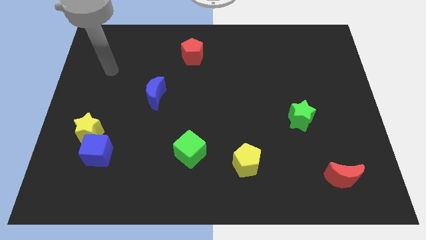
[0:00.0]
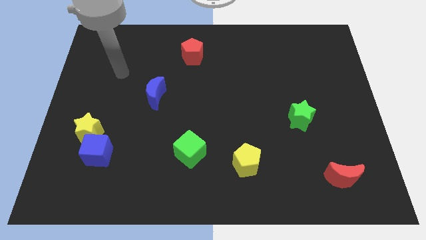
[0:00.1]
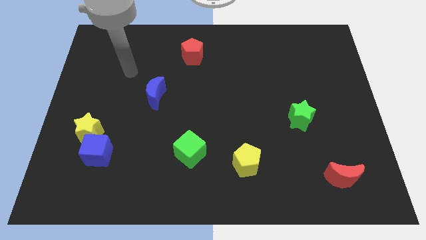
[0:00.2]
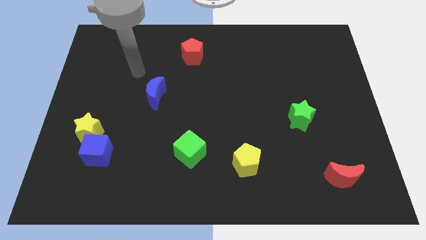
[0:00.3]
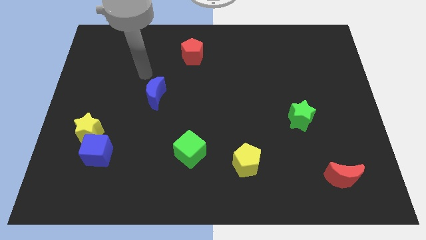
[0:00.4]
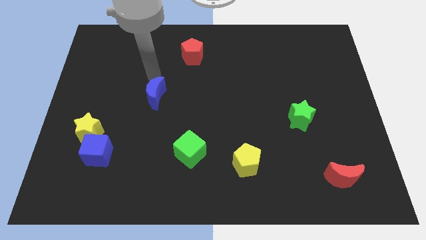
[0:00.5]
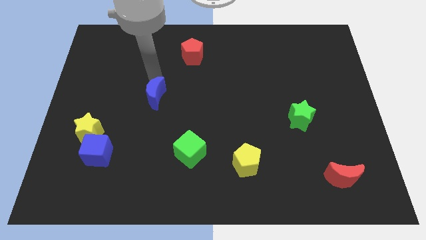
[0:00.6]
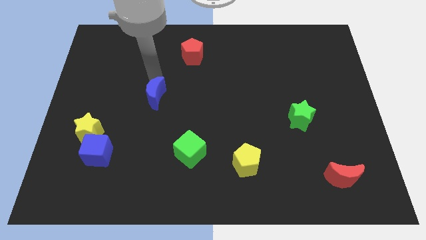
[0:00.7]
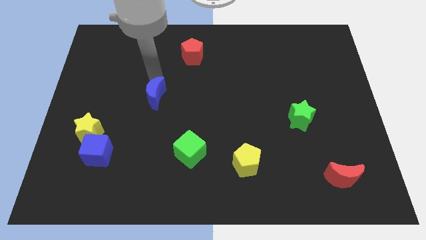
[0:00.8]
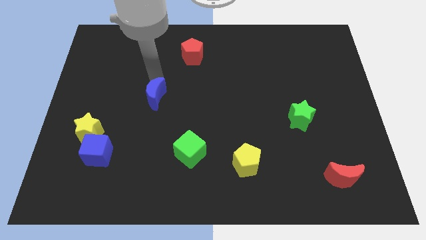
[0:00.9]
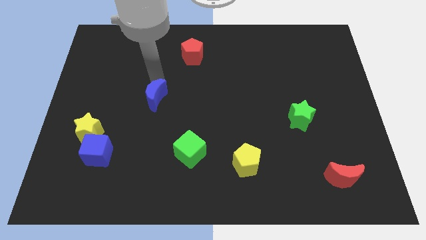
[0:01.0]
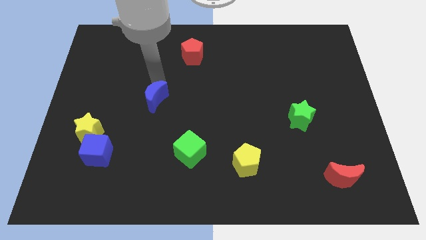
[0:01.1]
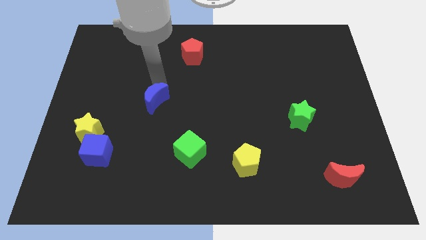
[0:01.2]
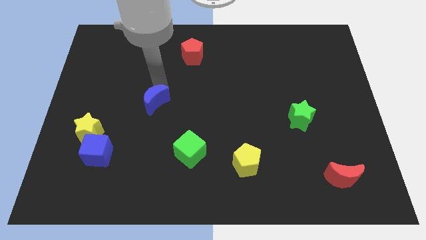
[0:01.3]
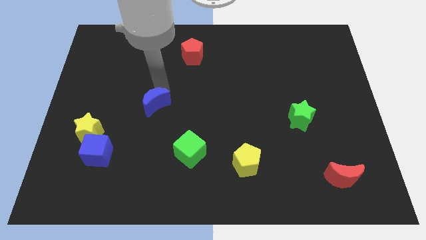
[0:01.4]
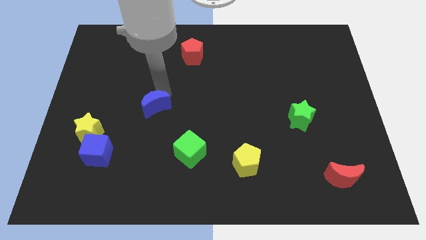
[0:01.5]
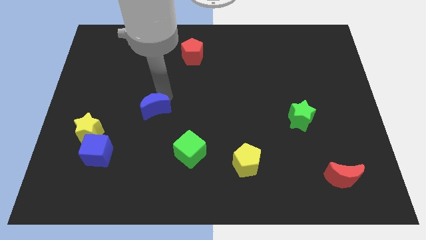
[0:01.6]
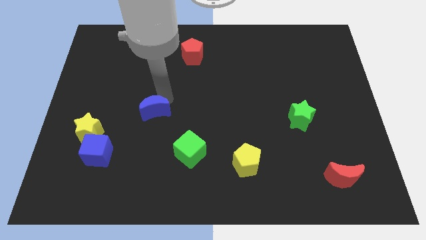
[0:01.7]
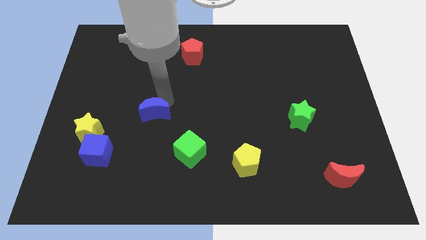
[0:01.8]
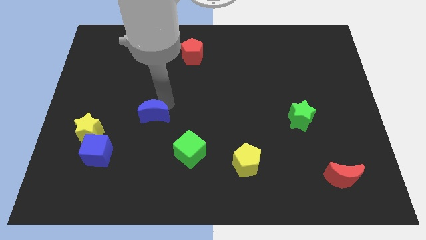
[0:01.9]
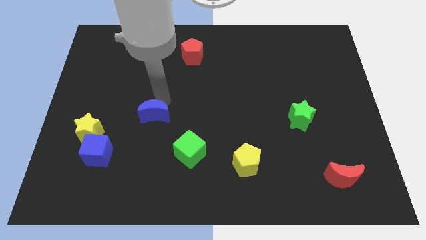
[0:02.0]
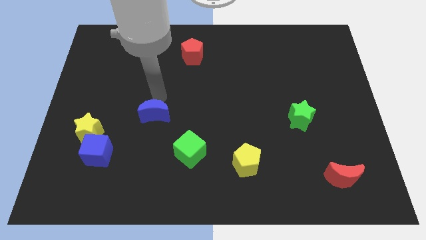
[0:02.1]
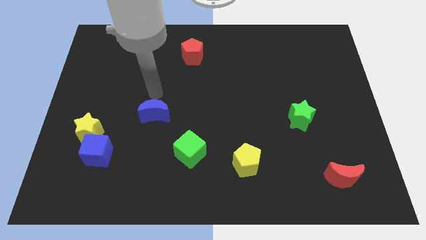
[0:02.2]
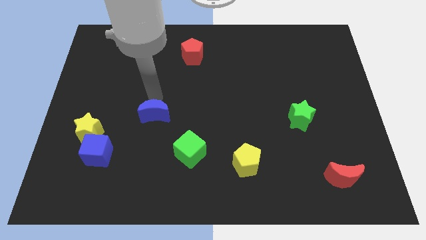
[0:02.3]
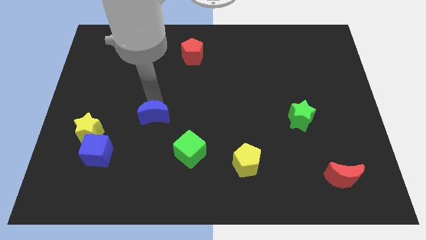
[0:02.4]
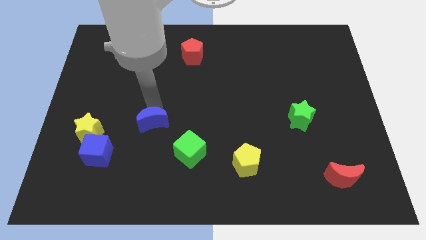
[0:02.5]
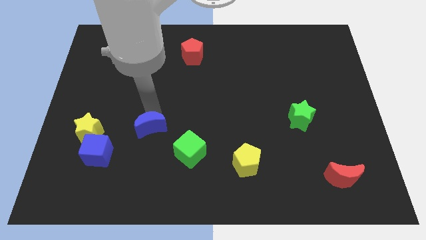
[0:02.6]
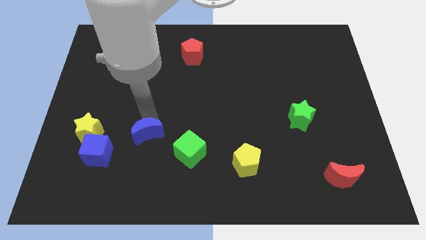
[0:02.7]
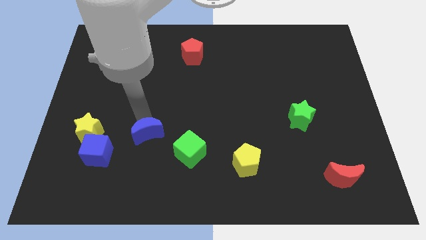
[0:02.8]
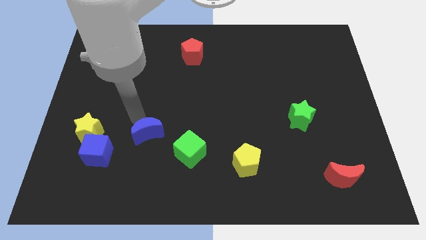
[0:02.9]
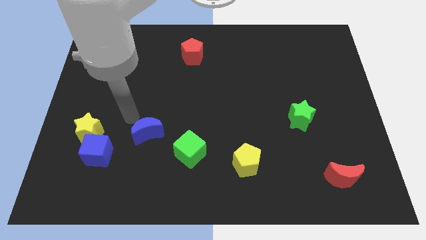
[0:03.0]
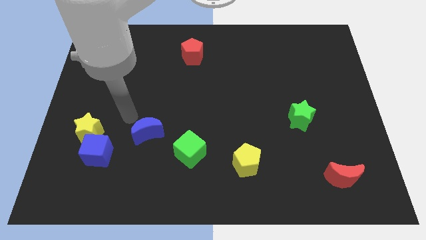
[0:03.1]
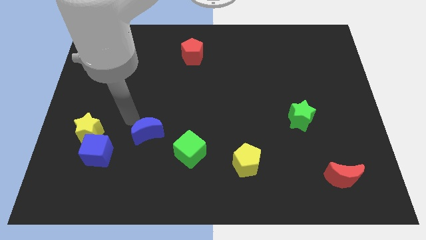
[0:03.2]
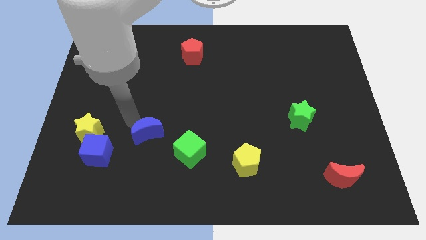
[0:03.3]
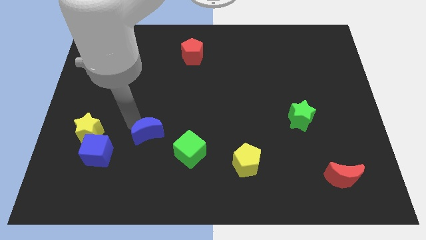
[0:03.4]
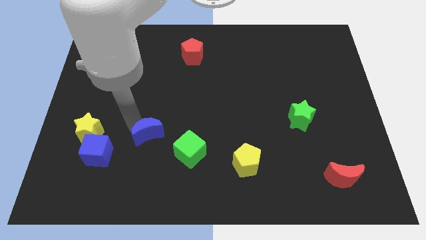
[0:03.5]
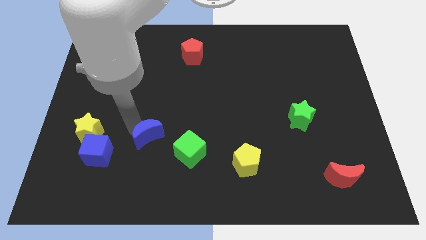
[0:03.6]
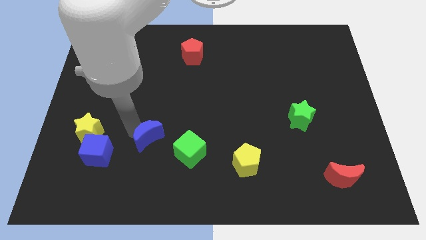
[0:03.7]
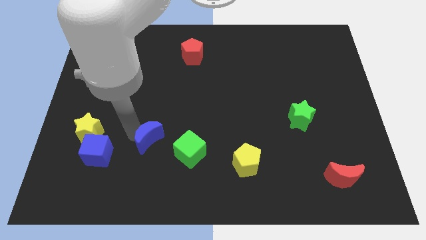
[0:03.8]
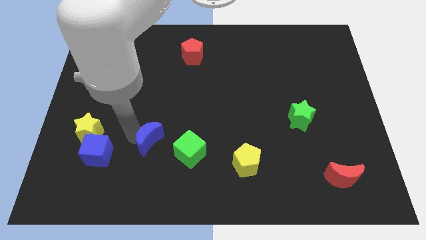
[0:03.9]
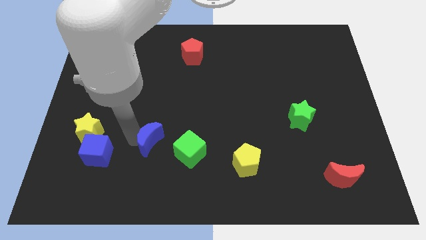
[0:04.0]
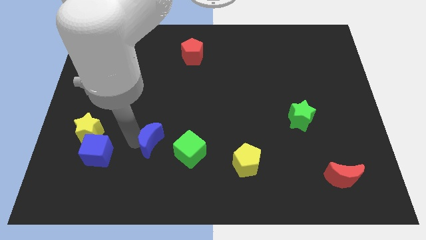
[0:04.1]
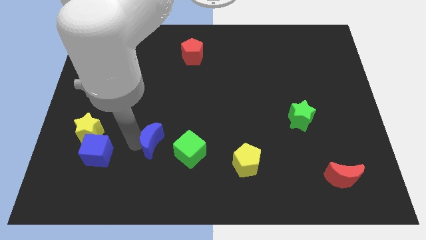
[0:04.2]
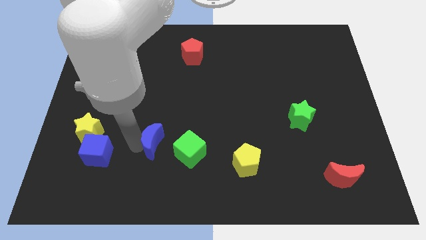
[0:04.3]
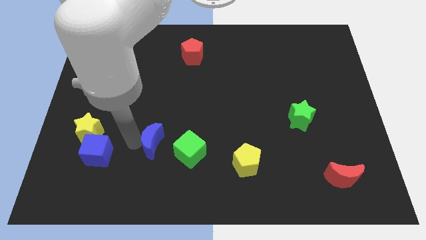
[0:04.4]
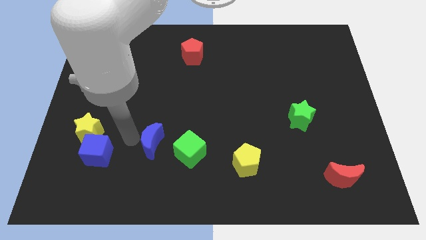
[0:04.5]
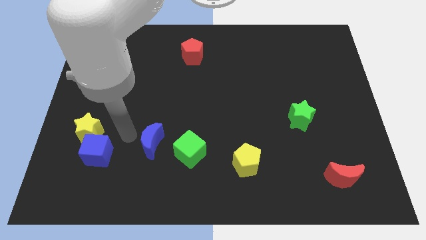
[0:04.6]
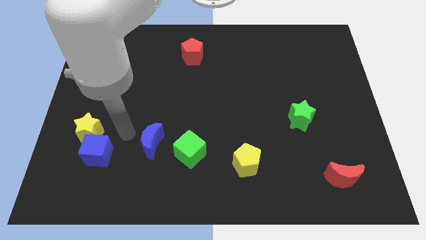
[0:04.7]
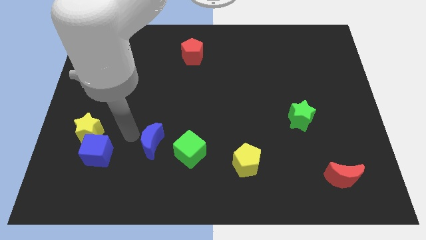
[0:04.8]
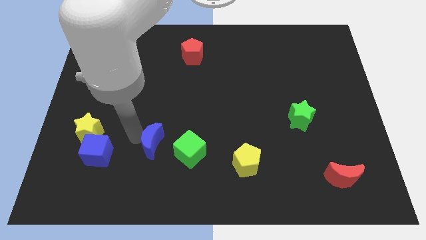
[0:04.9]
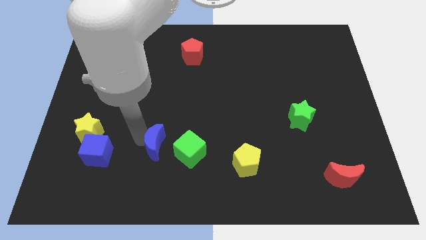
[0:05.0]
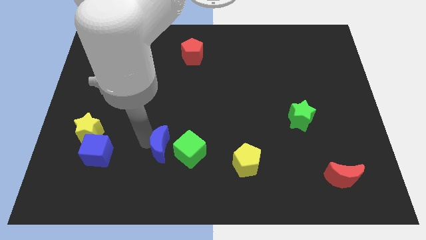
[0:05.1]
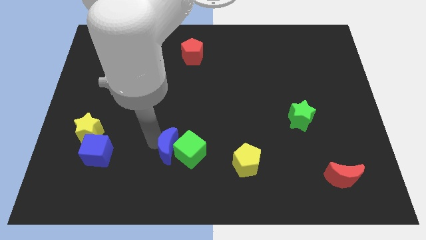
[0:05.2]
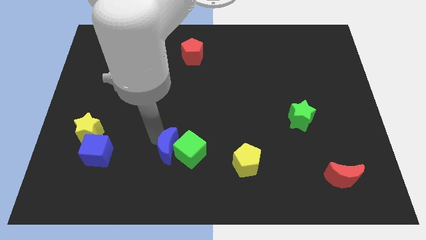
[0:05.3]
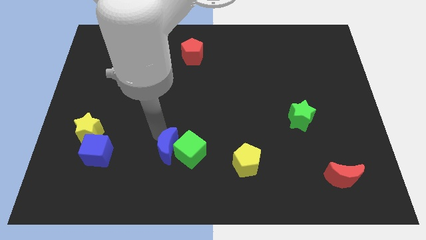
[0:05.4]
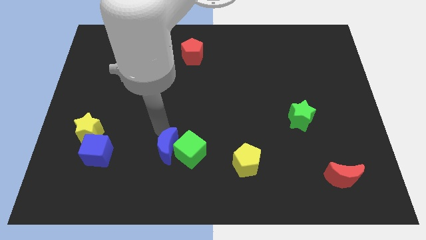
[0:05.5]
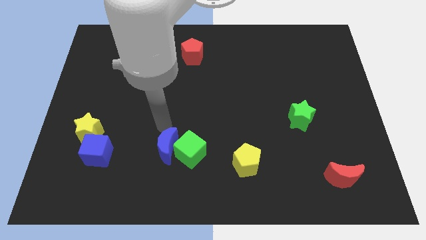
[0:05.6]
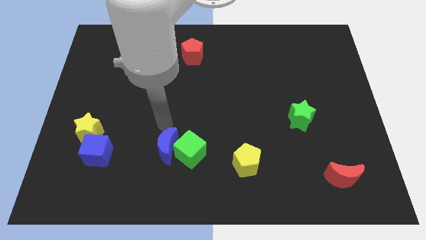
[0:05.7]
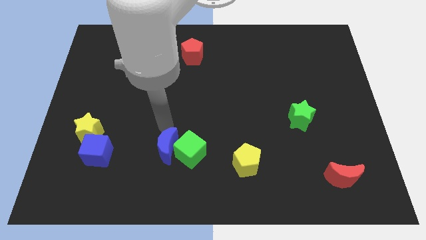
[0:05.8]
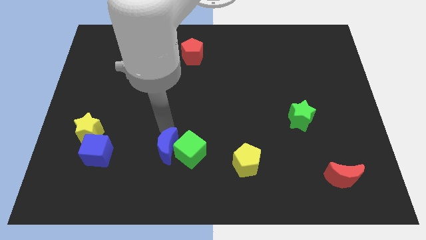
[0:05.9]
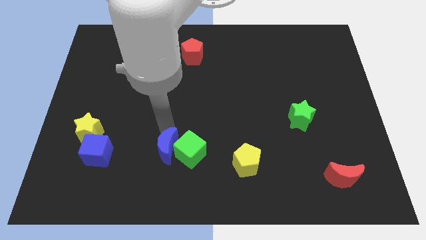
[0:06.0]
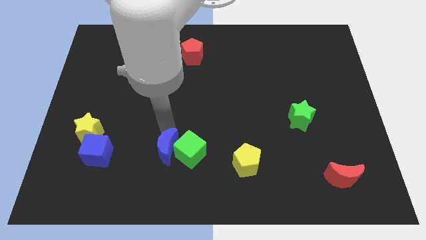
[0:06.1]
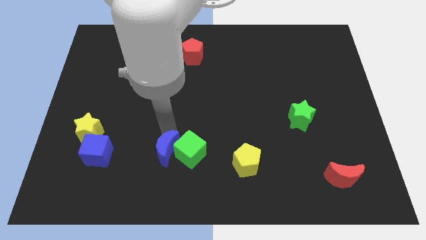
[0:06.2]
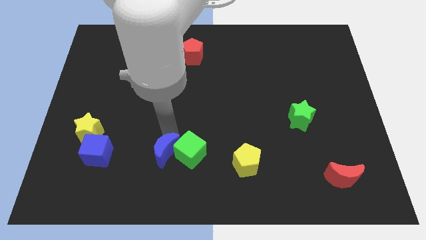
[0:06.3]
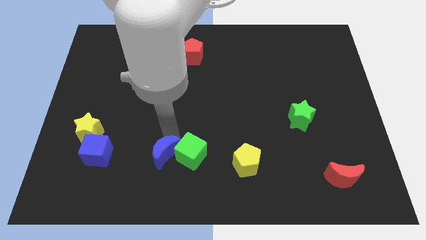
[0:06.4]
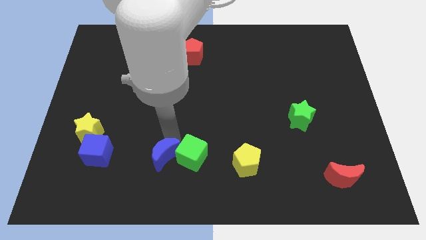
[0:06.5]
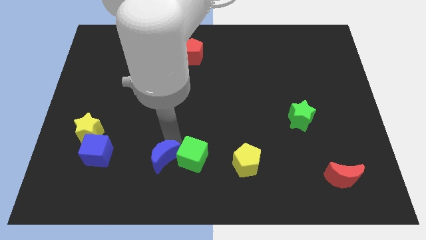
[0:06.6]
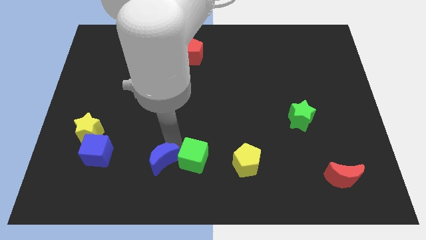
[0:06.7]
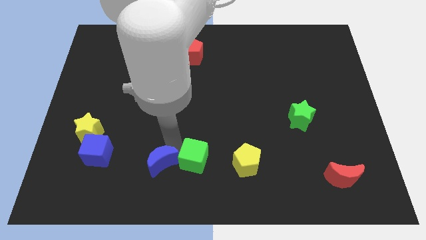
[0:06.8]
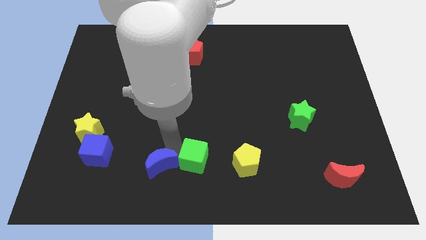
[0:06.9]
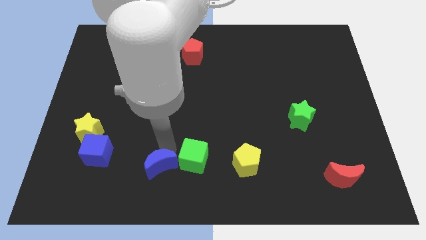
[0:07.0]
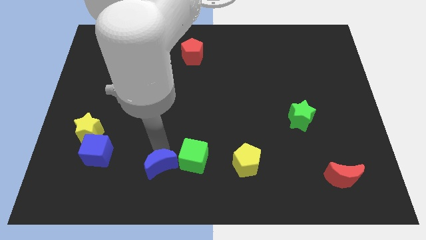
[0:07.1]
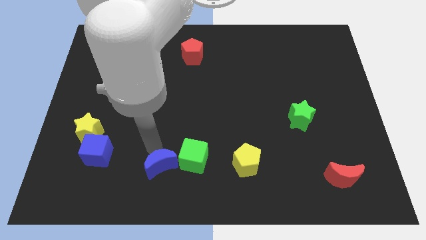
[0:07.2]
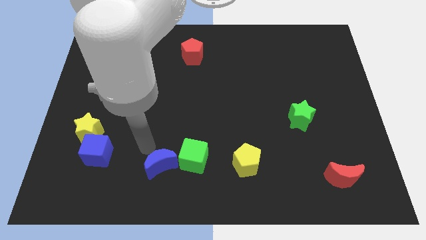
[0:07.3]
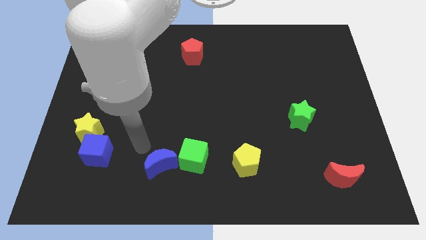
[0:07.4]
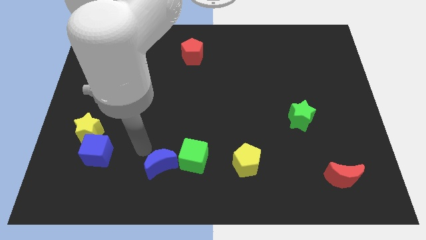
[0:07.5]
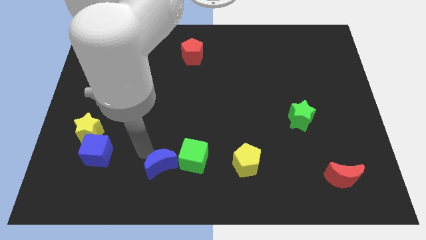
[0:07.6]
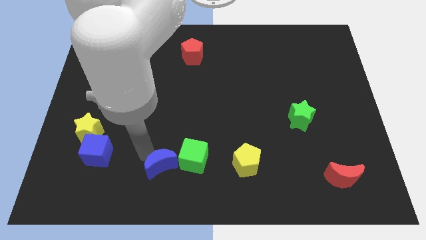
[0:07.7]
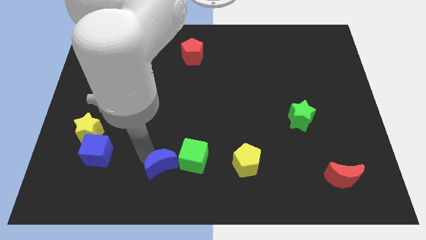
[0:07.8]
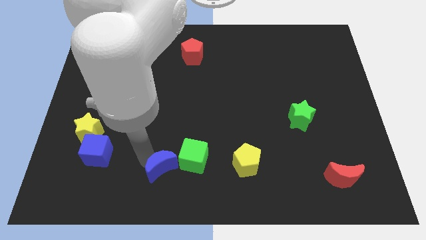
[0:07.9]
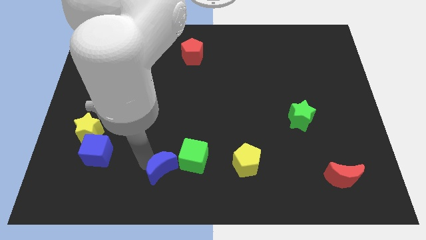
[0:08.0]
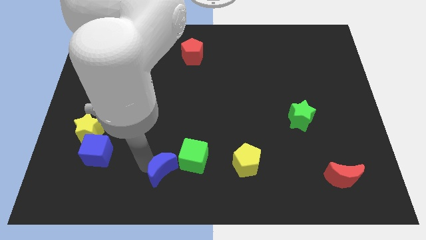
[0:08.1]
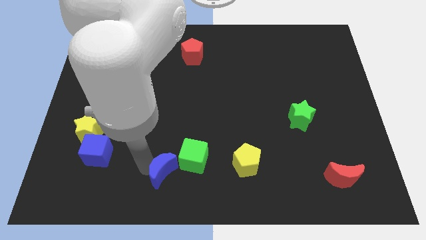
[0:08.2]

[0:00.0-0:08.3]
push the blue moon to the bottom
